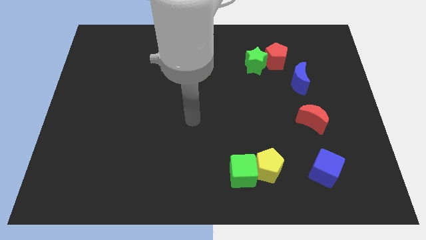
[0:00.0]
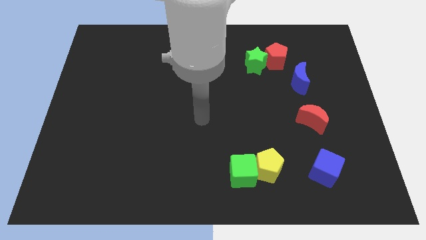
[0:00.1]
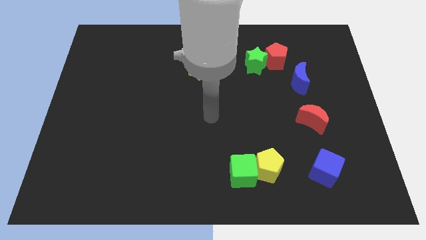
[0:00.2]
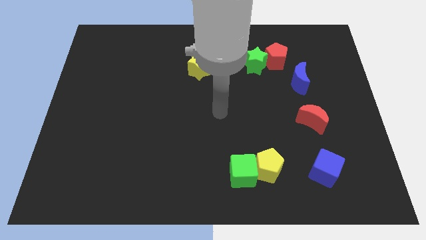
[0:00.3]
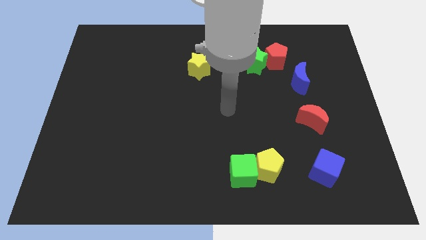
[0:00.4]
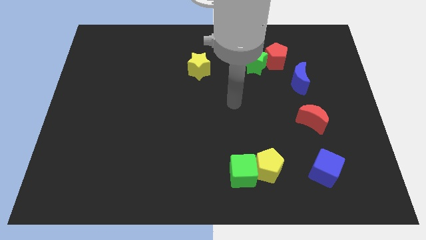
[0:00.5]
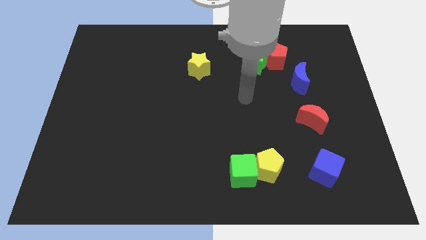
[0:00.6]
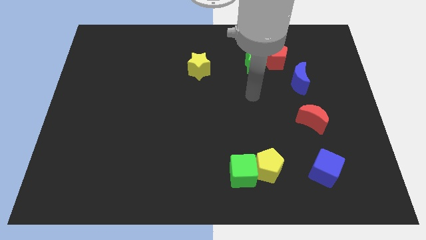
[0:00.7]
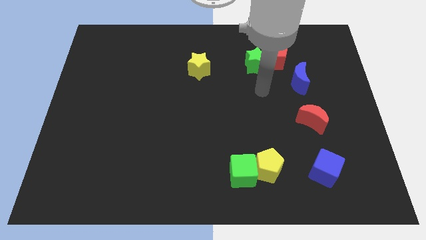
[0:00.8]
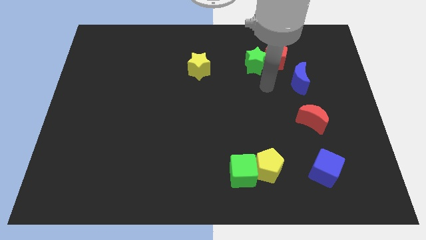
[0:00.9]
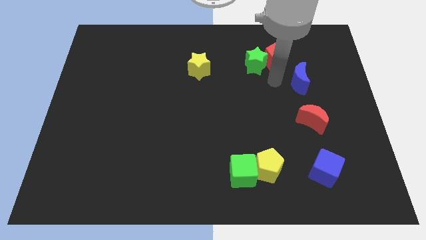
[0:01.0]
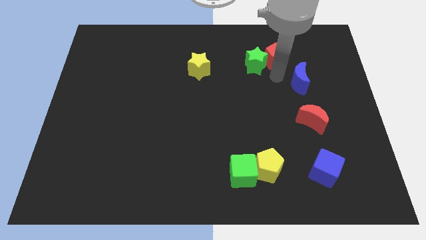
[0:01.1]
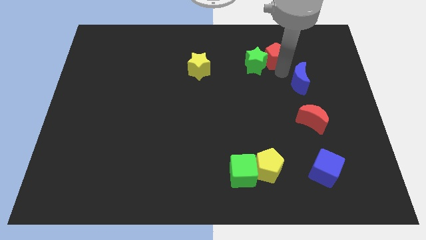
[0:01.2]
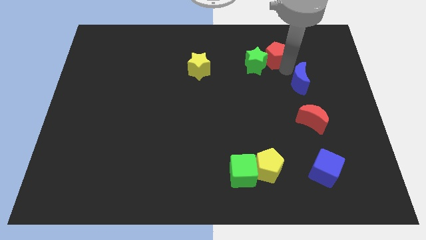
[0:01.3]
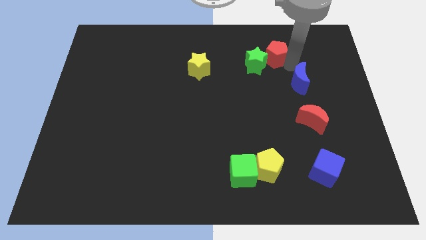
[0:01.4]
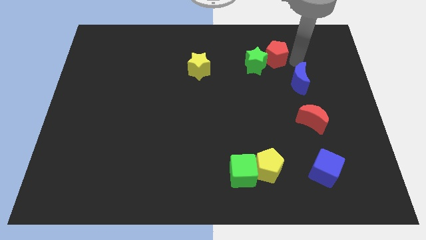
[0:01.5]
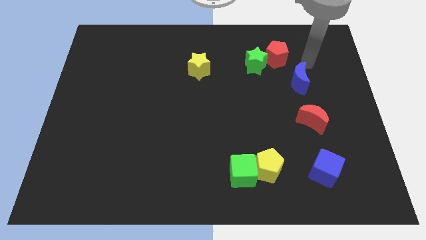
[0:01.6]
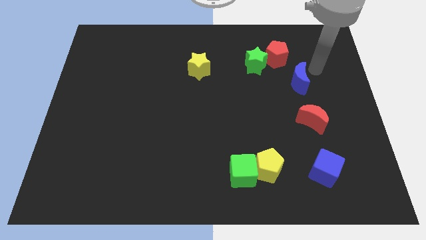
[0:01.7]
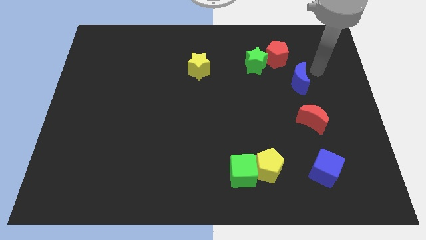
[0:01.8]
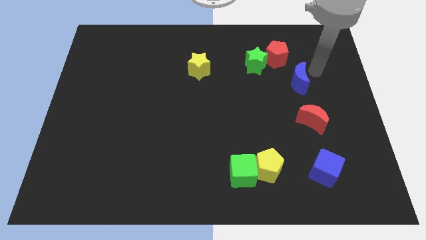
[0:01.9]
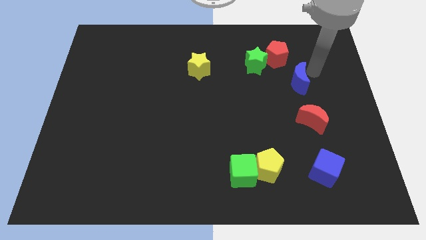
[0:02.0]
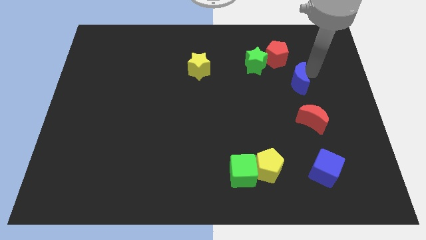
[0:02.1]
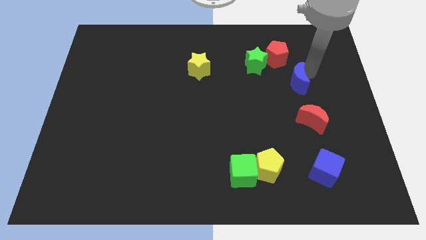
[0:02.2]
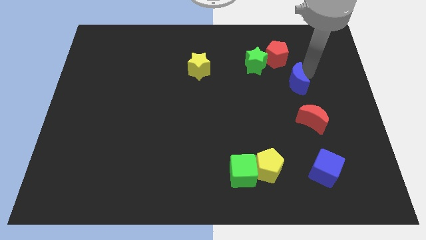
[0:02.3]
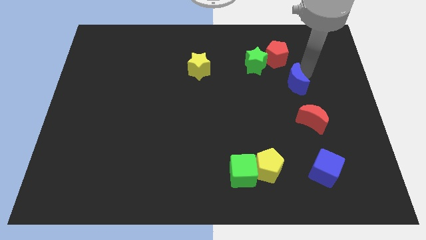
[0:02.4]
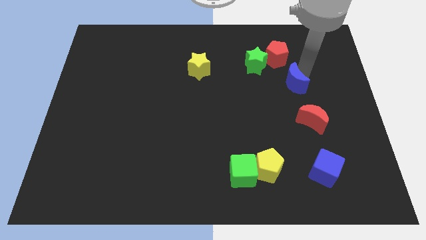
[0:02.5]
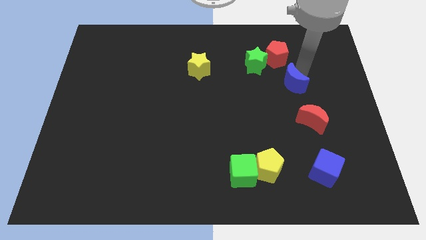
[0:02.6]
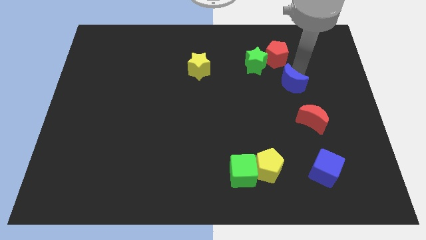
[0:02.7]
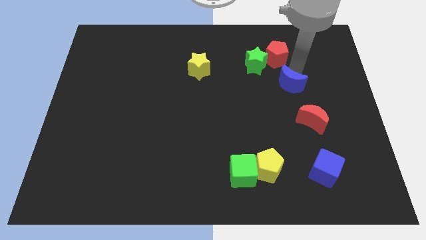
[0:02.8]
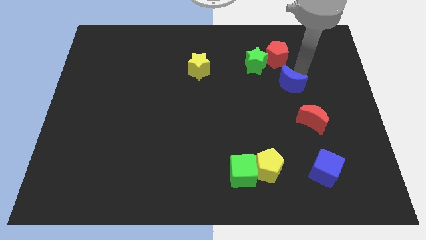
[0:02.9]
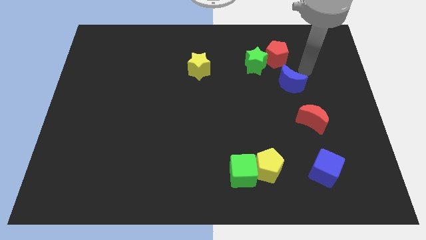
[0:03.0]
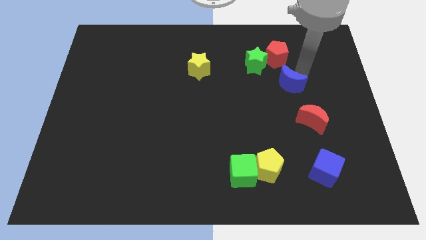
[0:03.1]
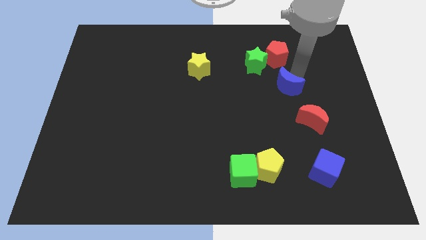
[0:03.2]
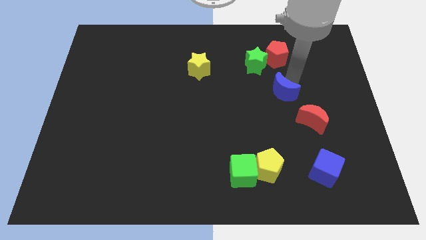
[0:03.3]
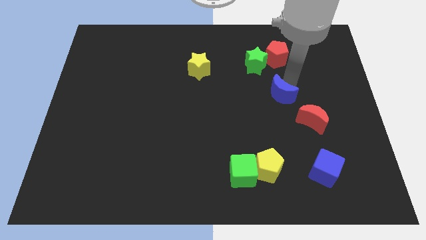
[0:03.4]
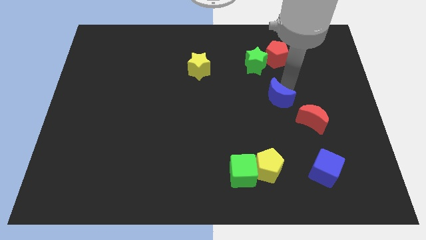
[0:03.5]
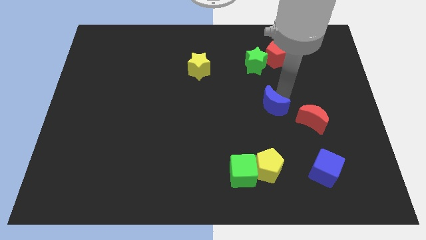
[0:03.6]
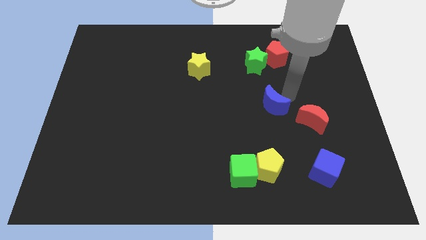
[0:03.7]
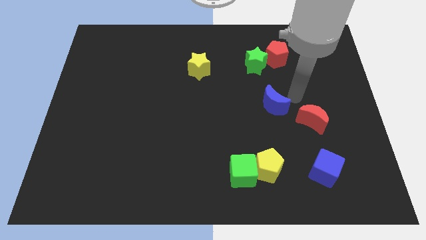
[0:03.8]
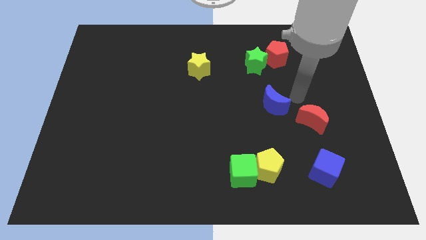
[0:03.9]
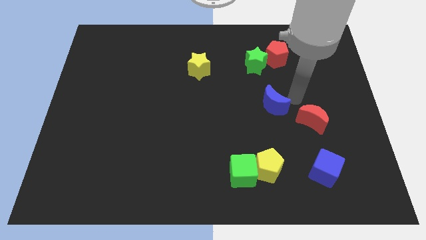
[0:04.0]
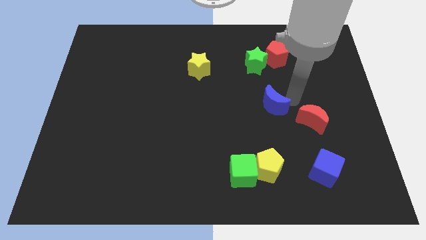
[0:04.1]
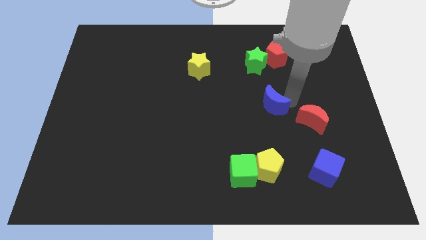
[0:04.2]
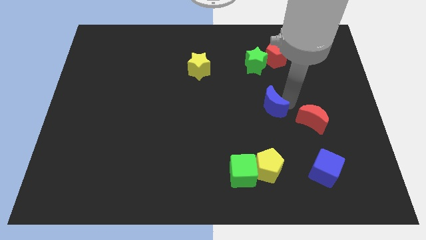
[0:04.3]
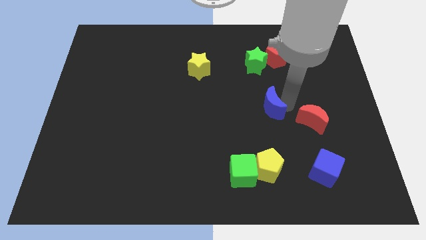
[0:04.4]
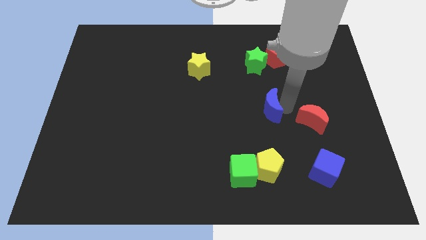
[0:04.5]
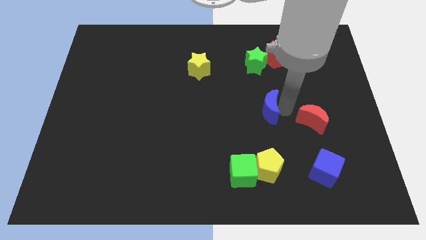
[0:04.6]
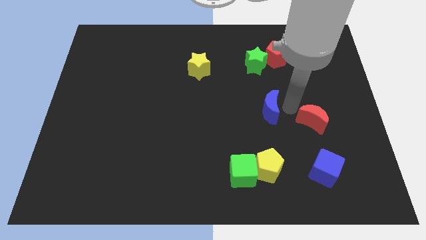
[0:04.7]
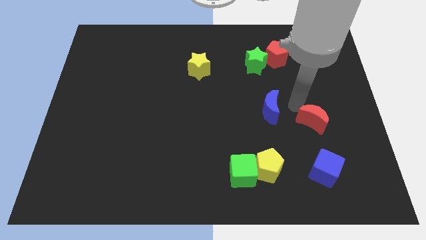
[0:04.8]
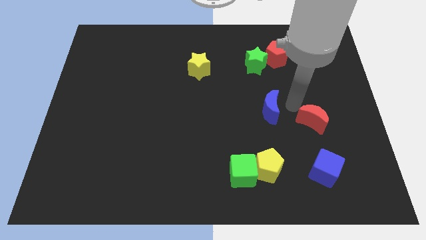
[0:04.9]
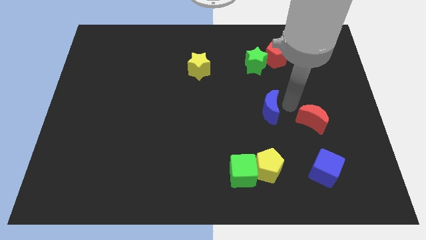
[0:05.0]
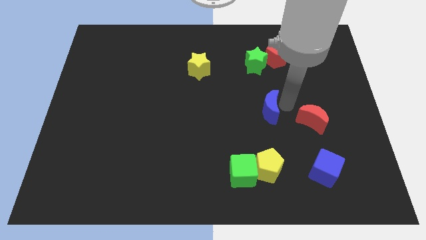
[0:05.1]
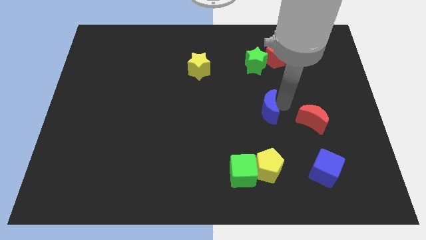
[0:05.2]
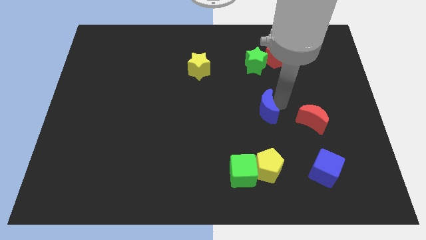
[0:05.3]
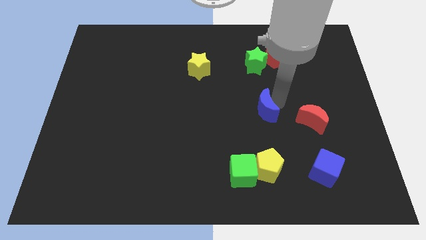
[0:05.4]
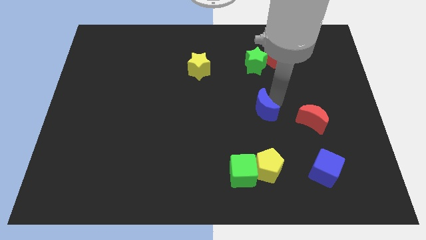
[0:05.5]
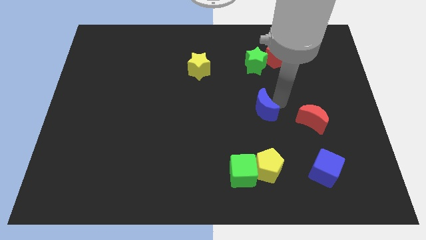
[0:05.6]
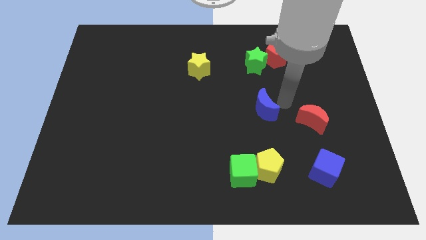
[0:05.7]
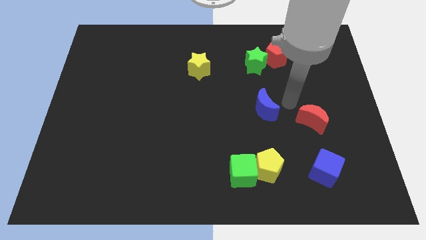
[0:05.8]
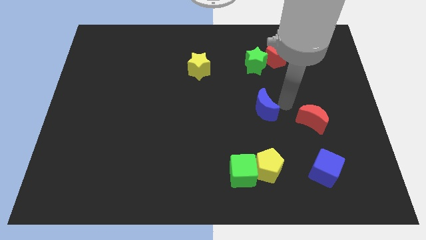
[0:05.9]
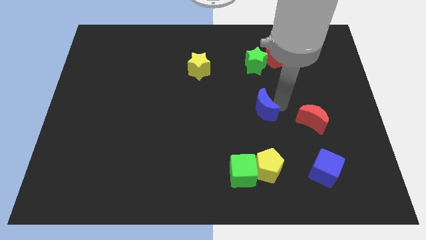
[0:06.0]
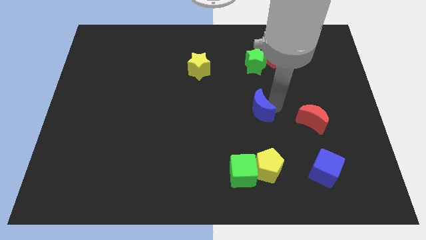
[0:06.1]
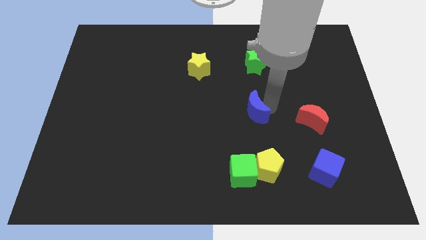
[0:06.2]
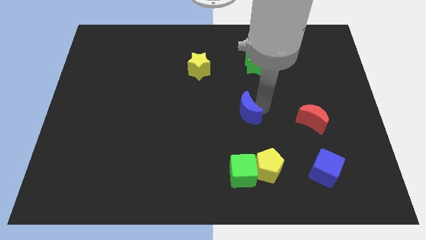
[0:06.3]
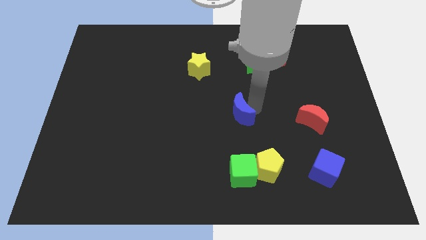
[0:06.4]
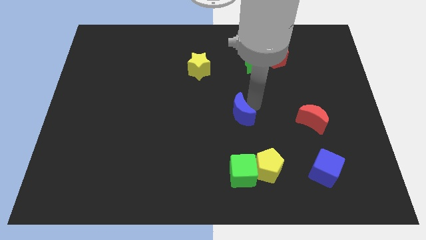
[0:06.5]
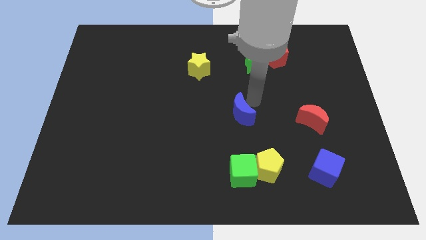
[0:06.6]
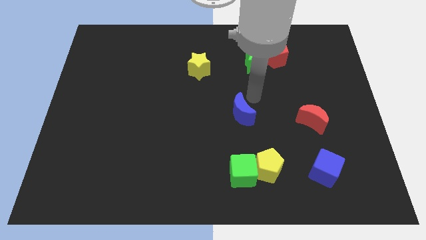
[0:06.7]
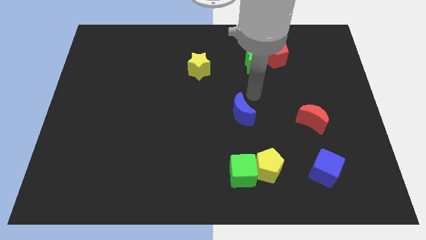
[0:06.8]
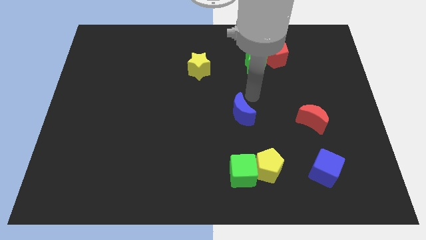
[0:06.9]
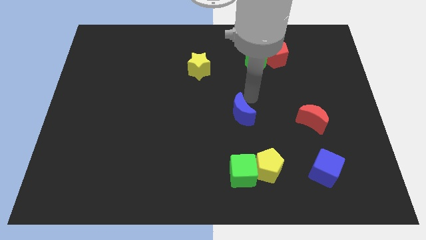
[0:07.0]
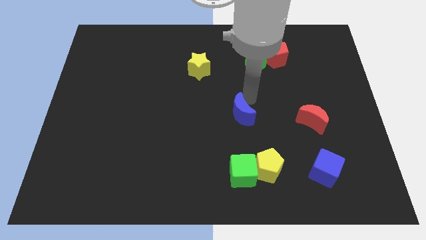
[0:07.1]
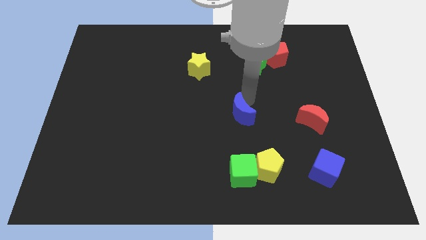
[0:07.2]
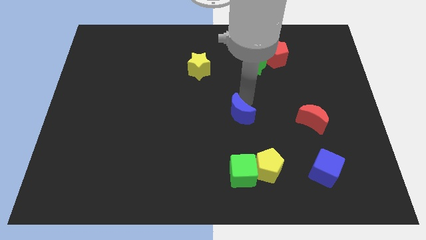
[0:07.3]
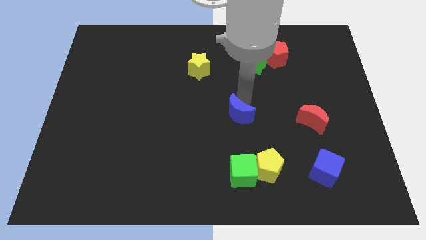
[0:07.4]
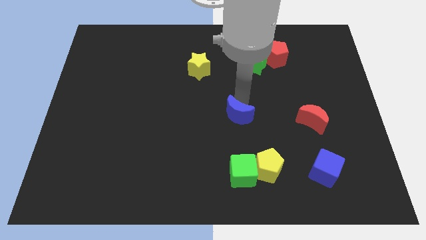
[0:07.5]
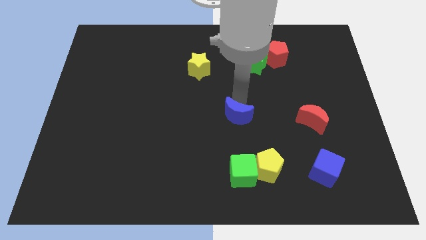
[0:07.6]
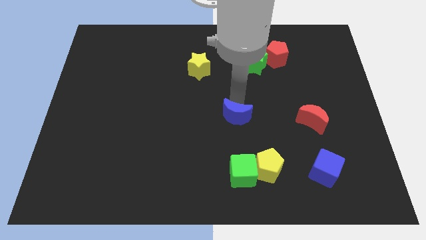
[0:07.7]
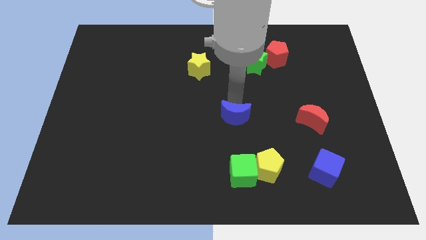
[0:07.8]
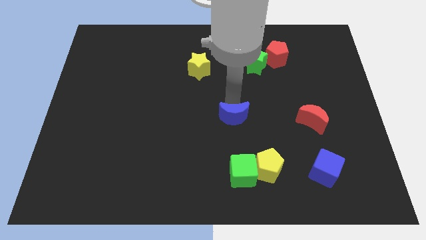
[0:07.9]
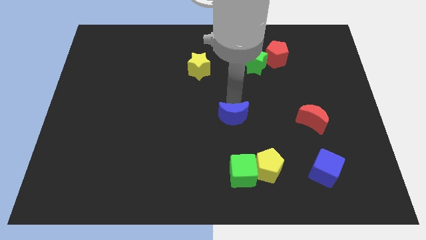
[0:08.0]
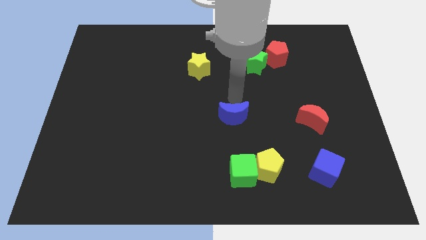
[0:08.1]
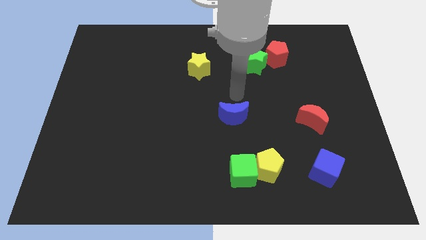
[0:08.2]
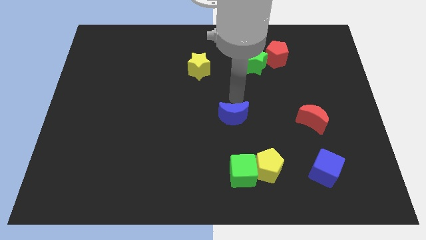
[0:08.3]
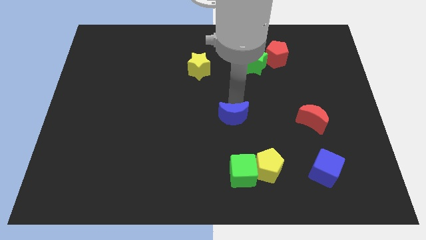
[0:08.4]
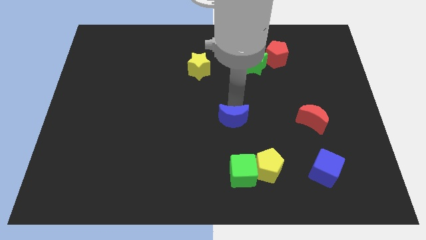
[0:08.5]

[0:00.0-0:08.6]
move the blue moon down and then to the left
